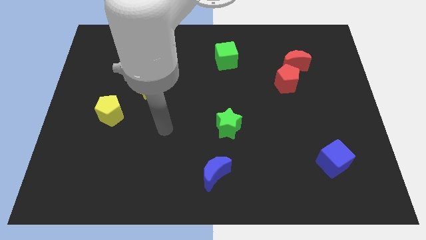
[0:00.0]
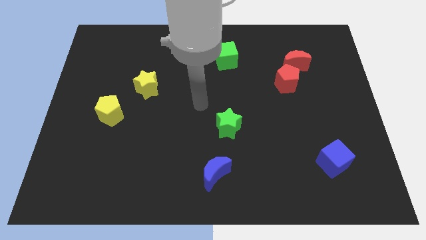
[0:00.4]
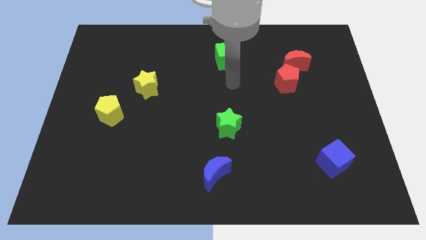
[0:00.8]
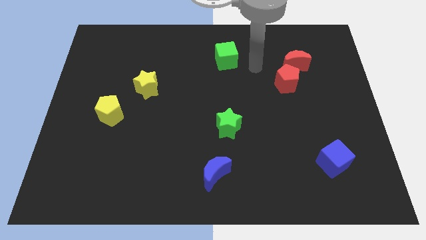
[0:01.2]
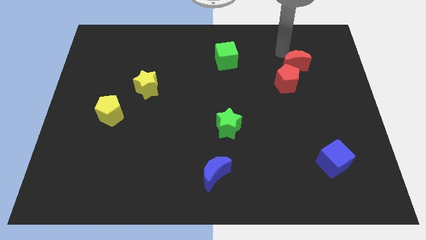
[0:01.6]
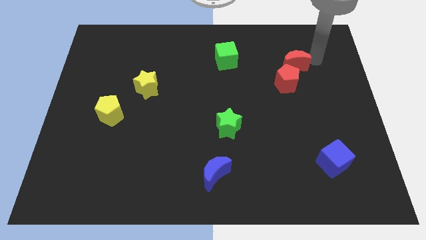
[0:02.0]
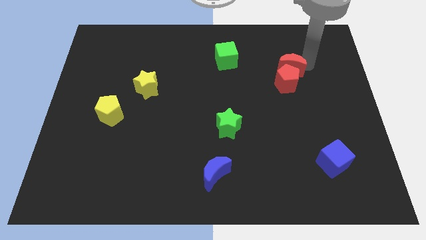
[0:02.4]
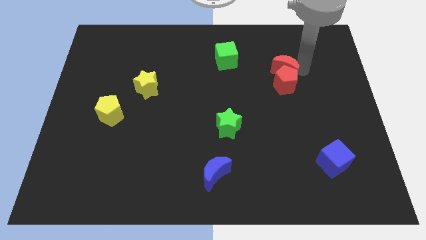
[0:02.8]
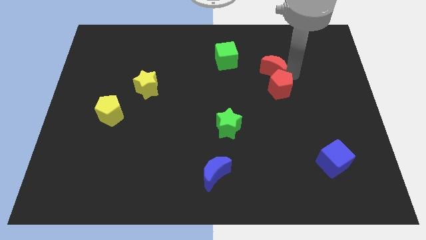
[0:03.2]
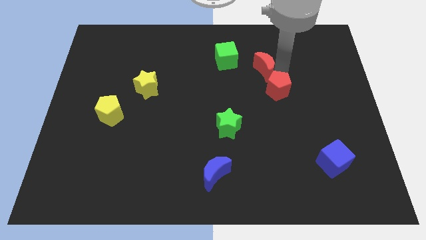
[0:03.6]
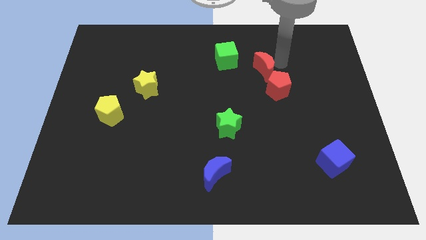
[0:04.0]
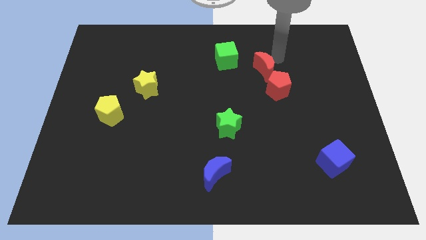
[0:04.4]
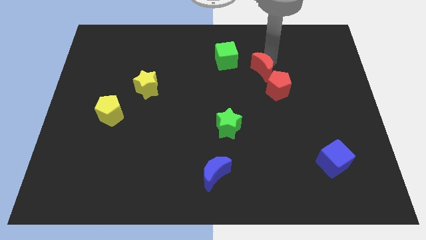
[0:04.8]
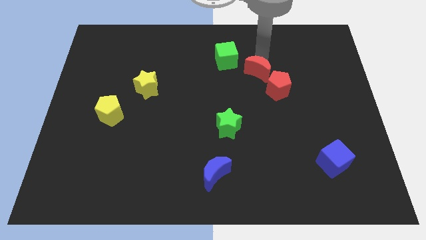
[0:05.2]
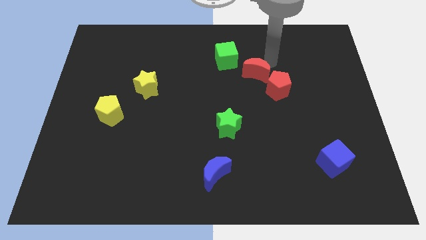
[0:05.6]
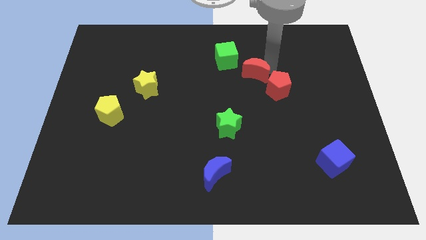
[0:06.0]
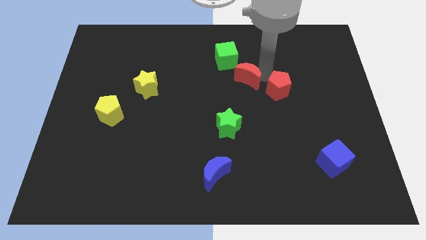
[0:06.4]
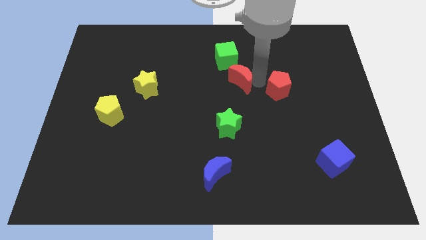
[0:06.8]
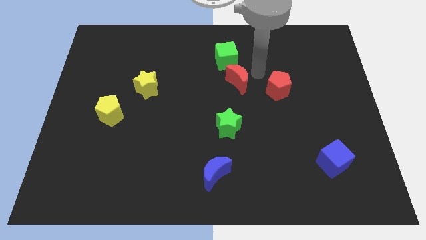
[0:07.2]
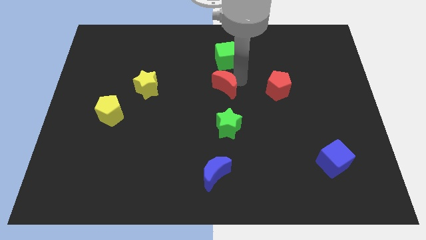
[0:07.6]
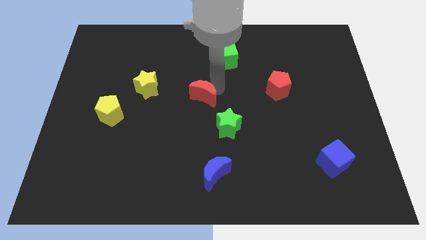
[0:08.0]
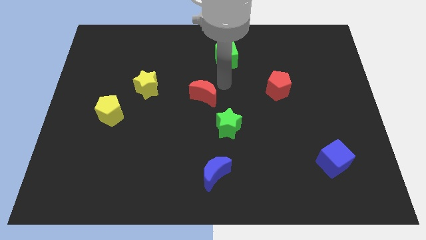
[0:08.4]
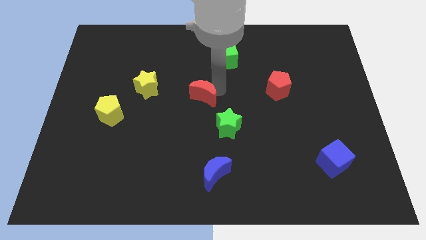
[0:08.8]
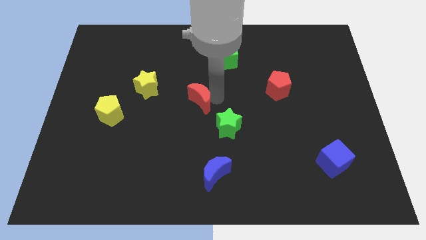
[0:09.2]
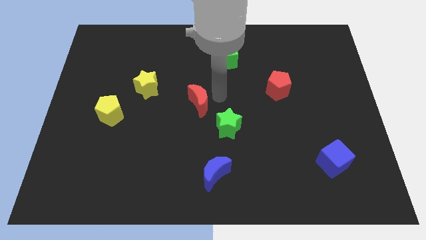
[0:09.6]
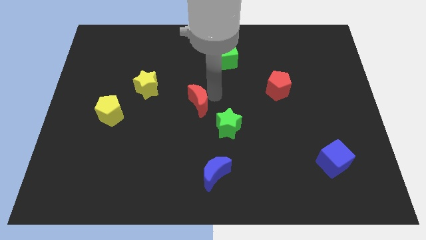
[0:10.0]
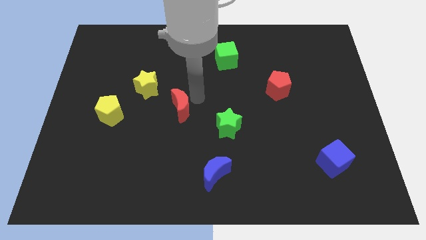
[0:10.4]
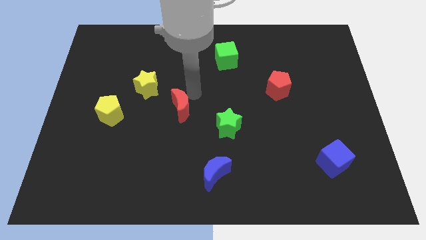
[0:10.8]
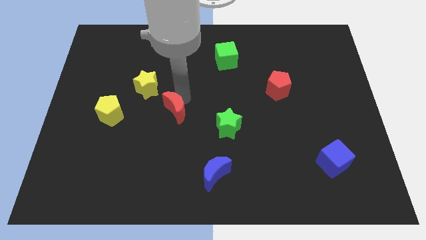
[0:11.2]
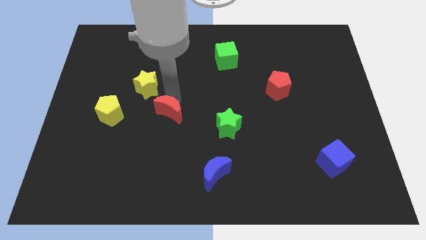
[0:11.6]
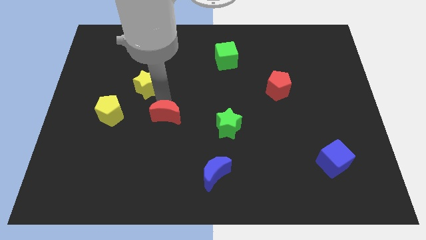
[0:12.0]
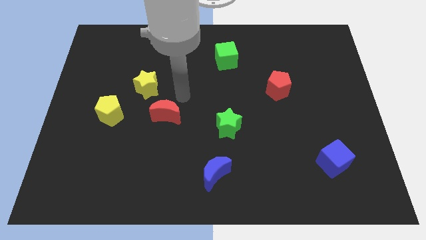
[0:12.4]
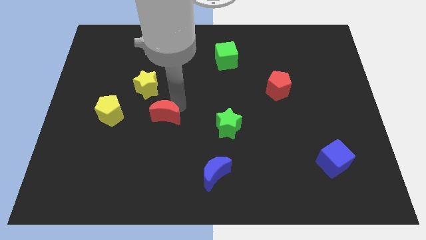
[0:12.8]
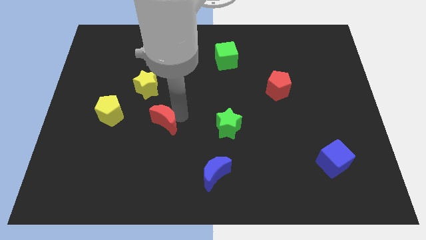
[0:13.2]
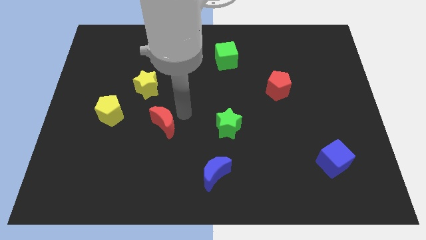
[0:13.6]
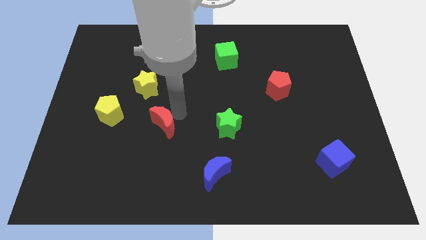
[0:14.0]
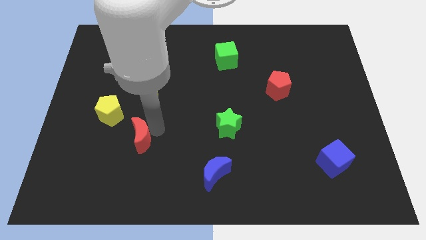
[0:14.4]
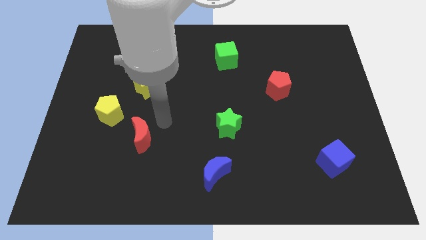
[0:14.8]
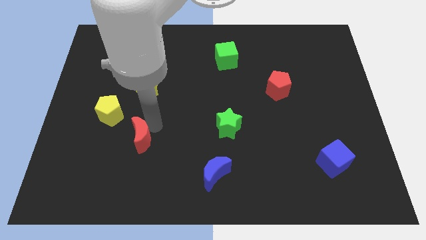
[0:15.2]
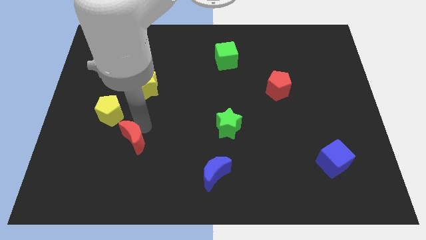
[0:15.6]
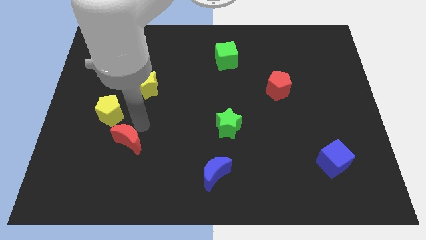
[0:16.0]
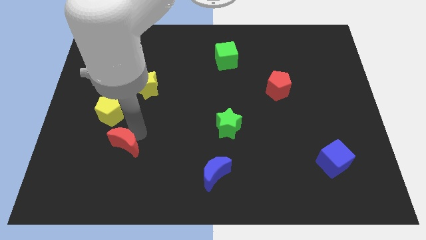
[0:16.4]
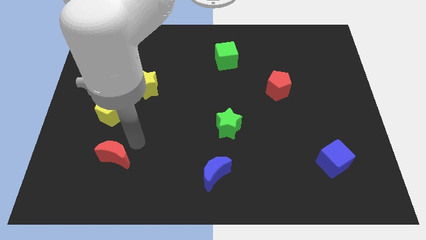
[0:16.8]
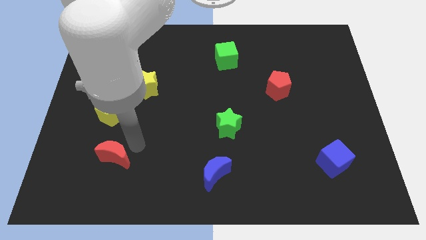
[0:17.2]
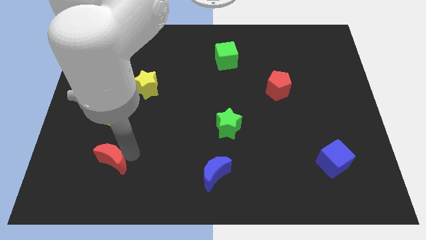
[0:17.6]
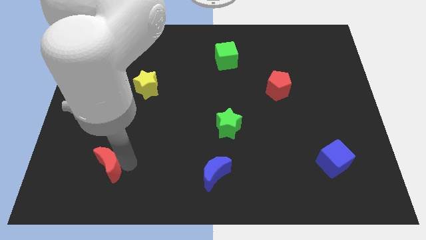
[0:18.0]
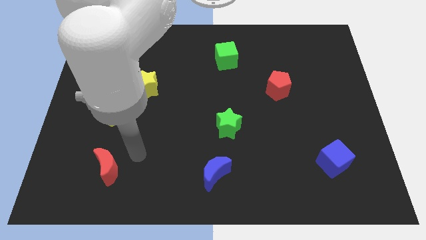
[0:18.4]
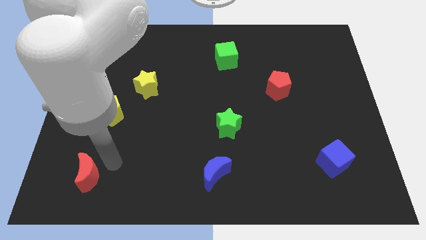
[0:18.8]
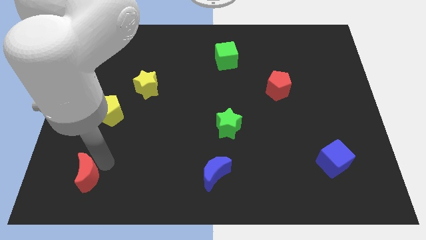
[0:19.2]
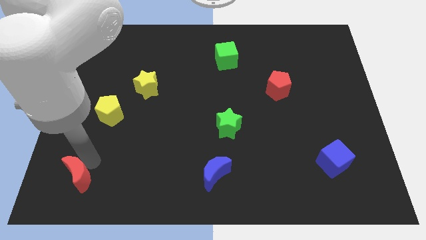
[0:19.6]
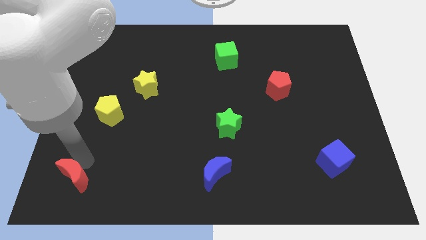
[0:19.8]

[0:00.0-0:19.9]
move the red moon to the lower left corner

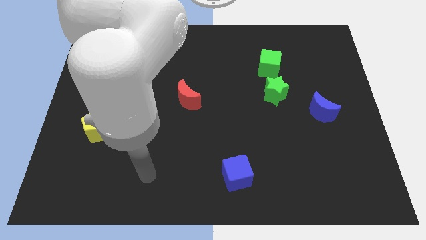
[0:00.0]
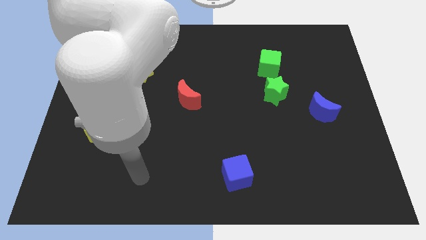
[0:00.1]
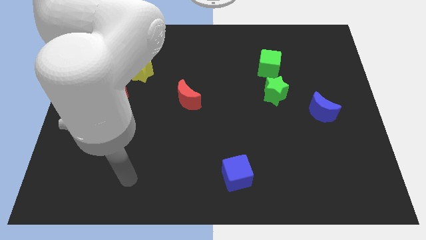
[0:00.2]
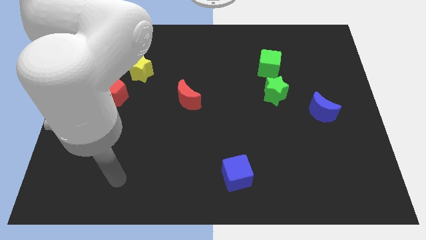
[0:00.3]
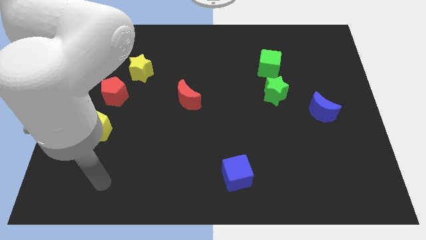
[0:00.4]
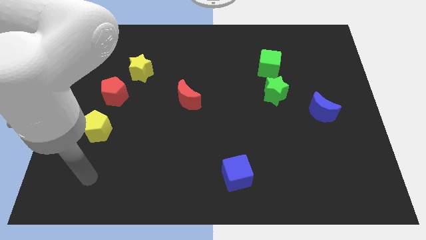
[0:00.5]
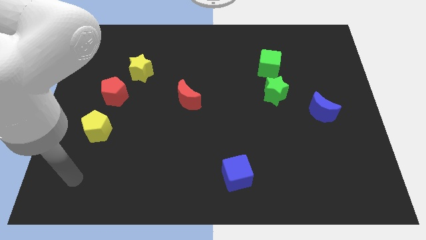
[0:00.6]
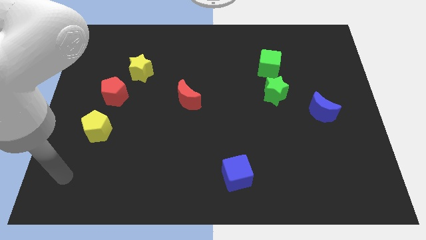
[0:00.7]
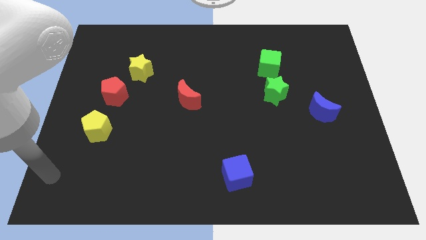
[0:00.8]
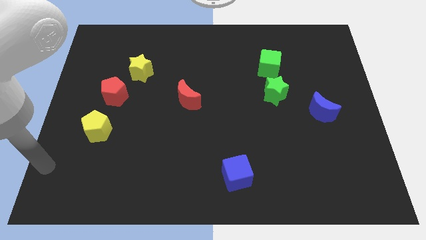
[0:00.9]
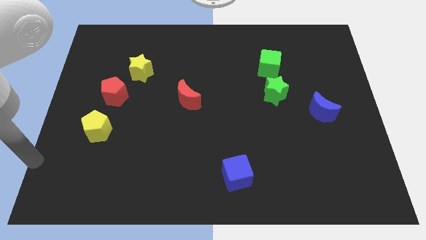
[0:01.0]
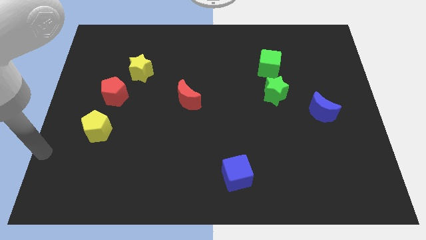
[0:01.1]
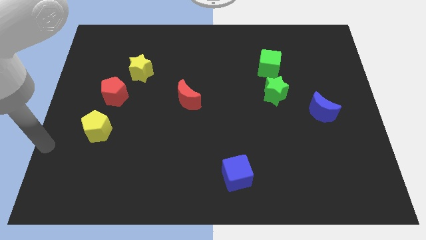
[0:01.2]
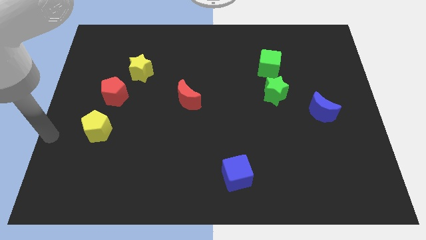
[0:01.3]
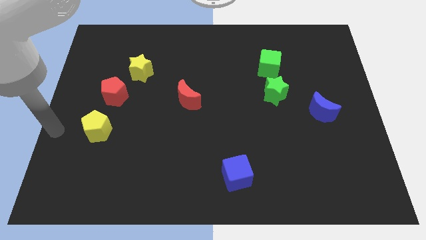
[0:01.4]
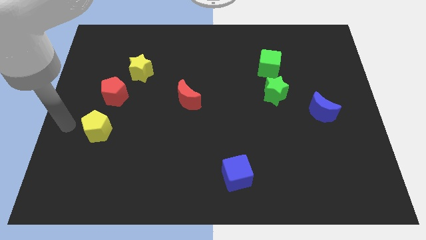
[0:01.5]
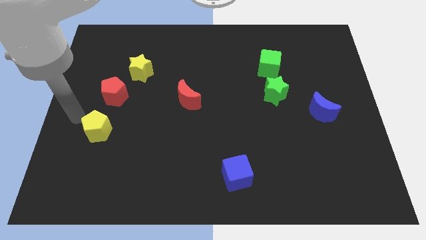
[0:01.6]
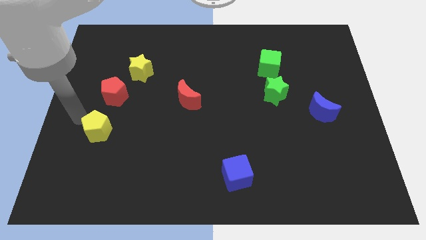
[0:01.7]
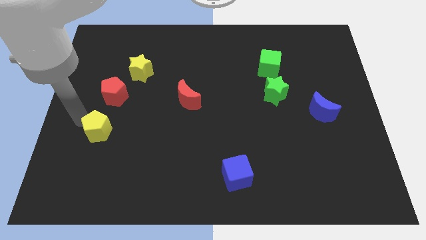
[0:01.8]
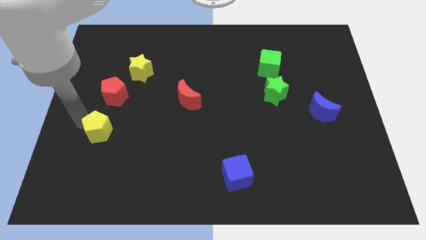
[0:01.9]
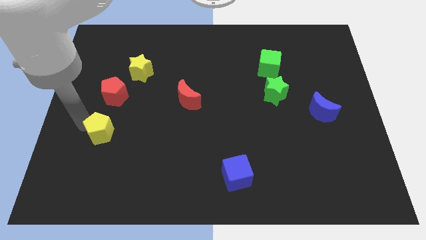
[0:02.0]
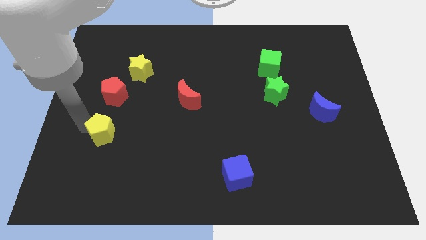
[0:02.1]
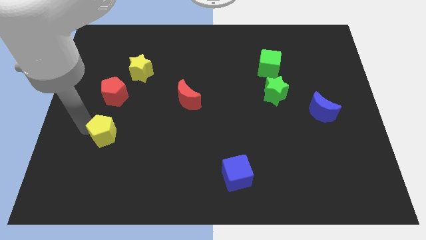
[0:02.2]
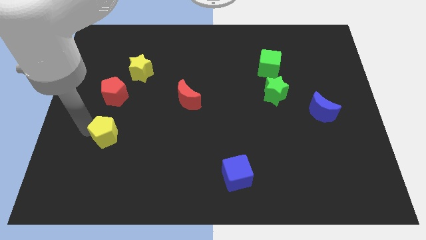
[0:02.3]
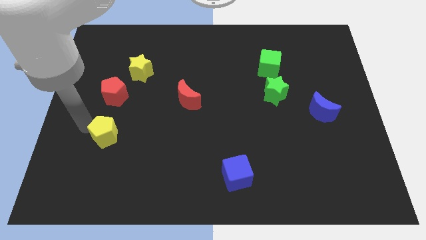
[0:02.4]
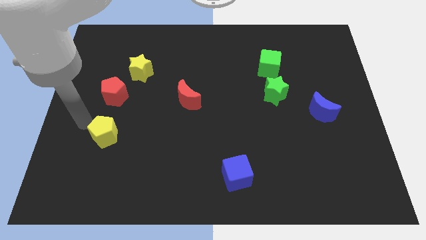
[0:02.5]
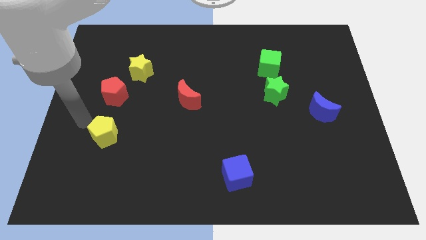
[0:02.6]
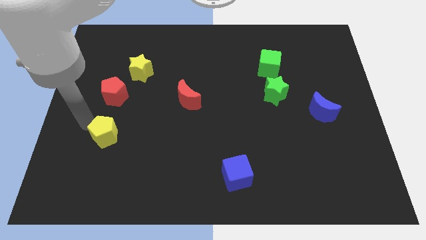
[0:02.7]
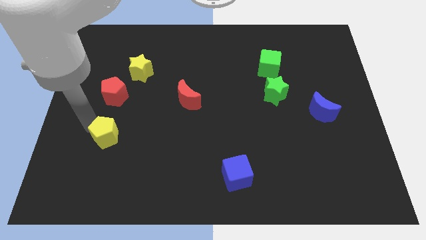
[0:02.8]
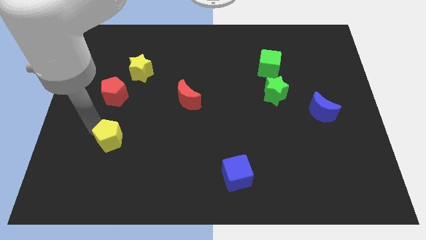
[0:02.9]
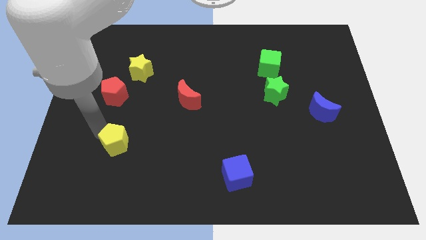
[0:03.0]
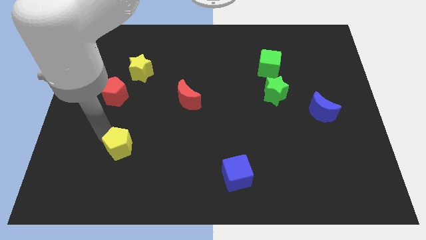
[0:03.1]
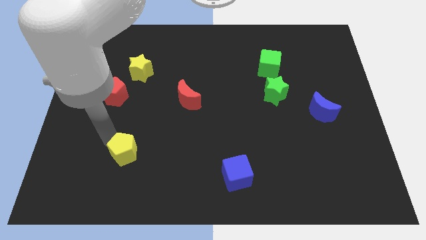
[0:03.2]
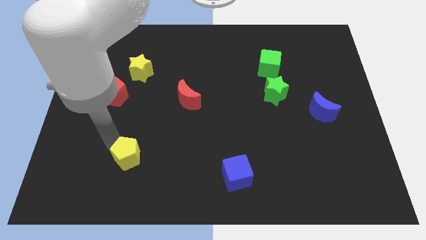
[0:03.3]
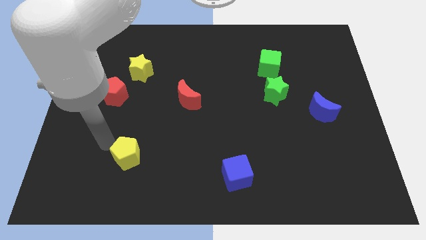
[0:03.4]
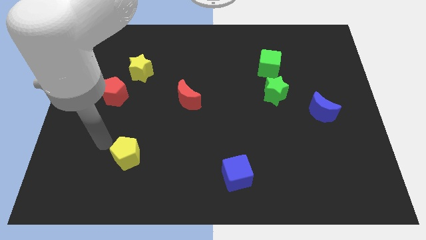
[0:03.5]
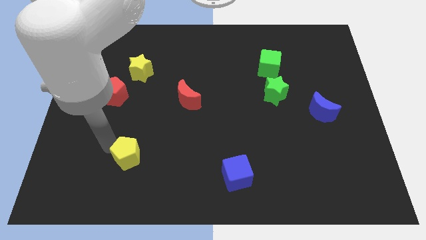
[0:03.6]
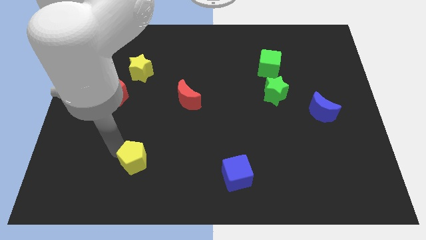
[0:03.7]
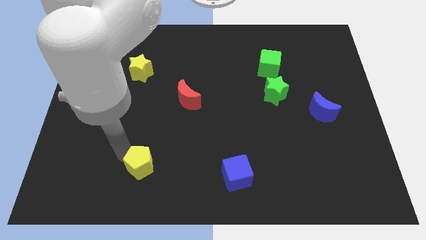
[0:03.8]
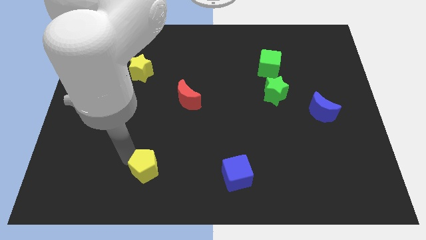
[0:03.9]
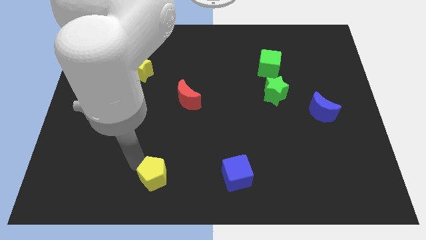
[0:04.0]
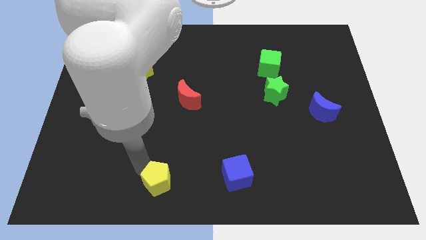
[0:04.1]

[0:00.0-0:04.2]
put the yellow pentagon to the bottom
